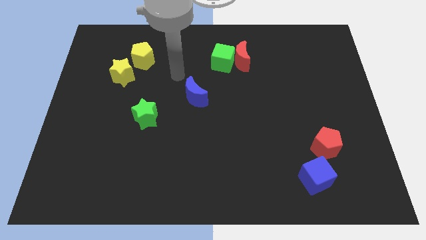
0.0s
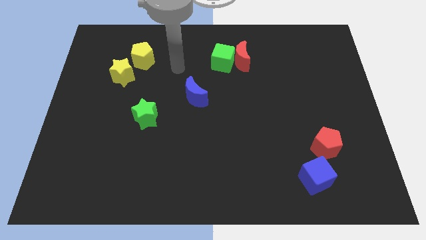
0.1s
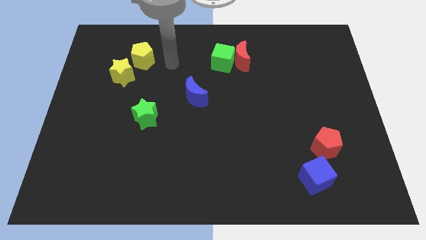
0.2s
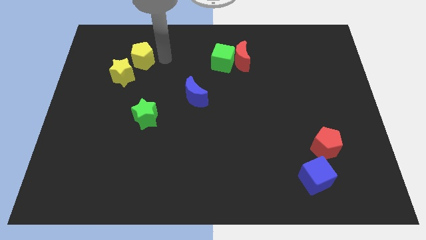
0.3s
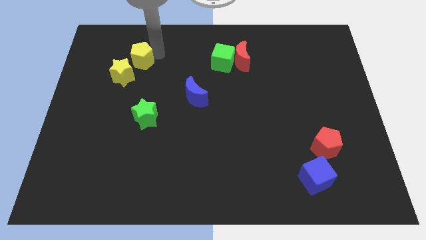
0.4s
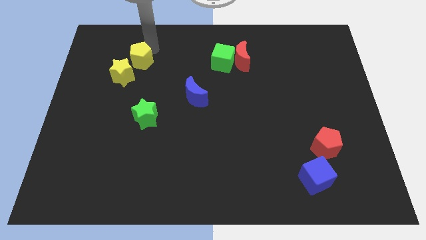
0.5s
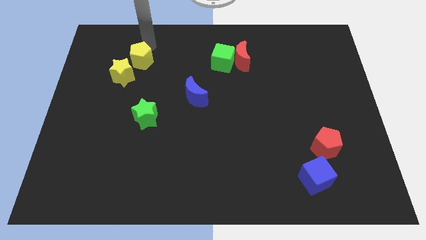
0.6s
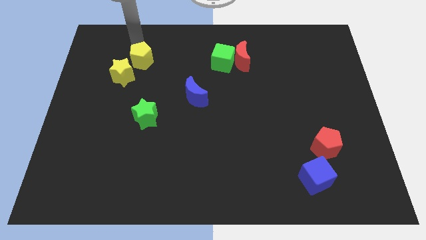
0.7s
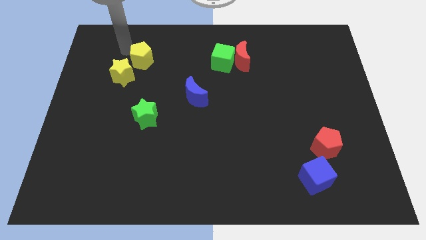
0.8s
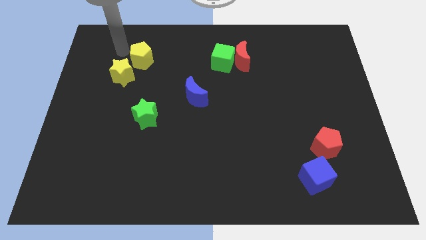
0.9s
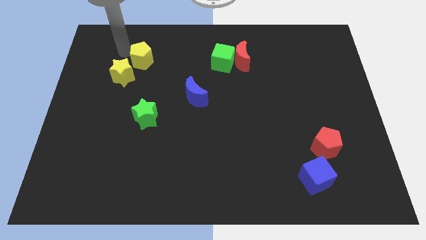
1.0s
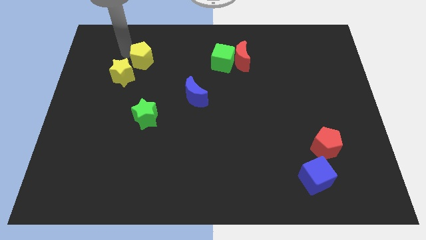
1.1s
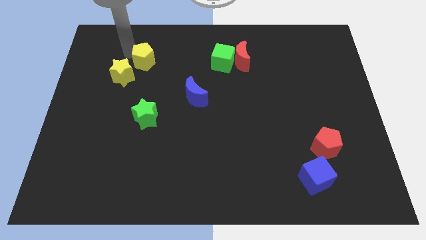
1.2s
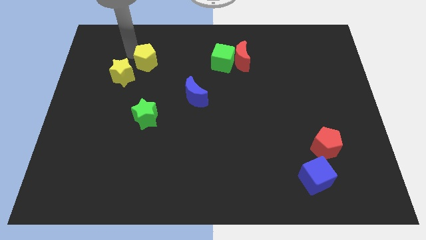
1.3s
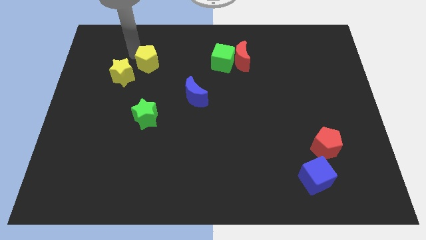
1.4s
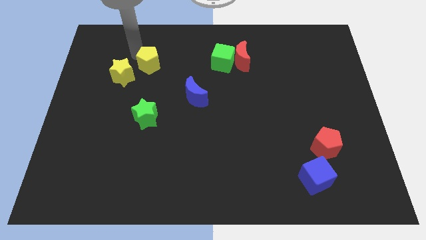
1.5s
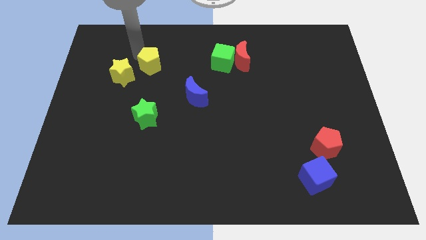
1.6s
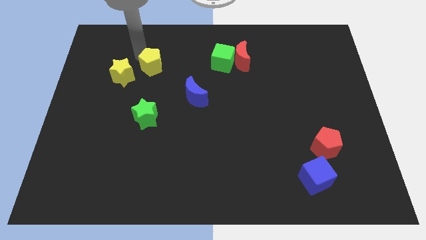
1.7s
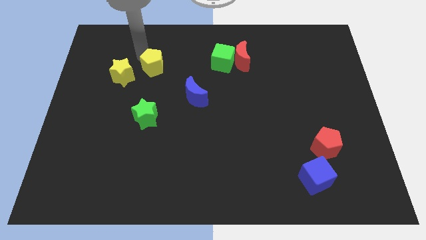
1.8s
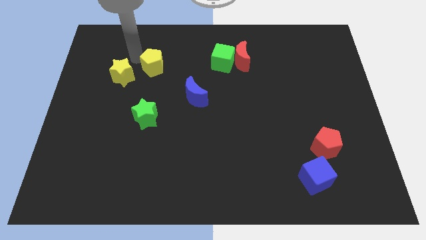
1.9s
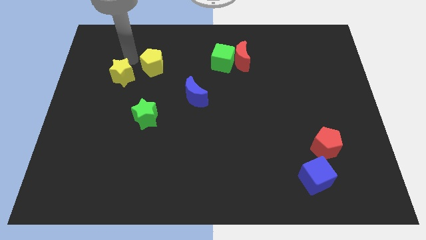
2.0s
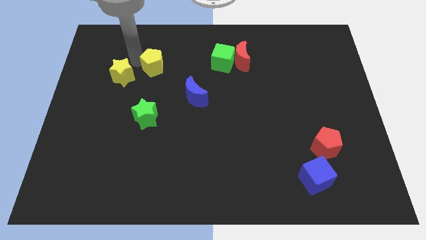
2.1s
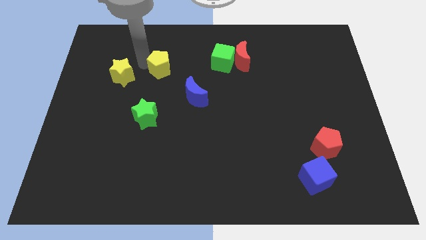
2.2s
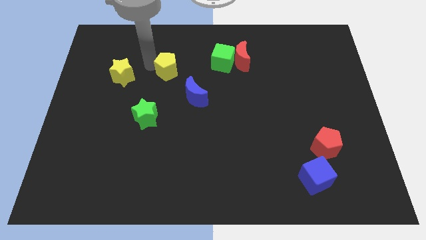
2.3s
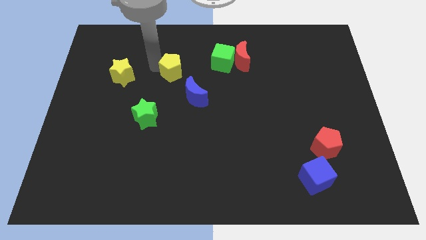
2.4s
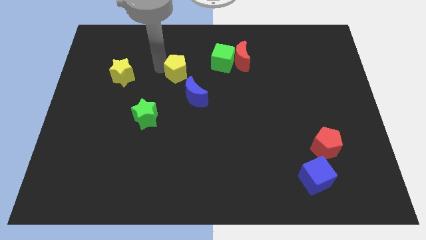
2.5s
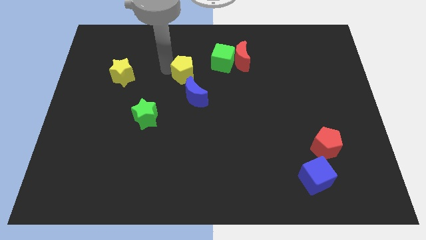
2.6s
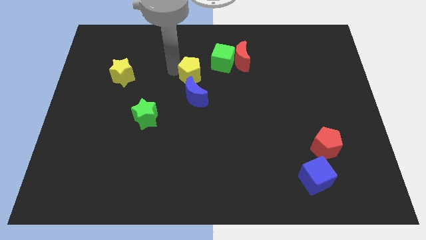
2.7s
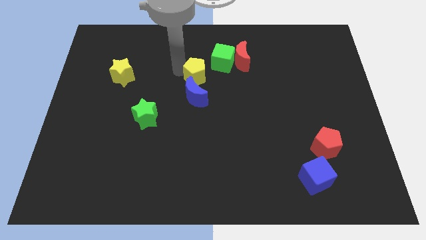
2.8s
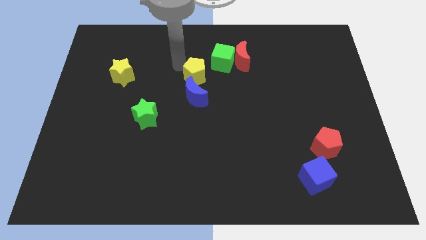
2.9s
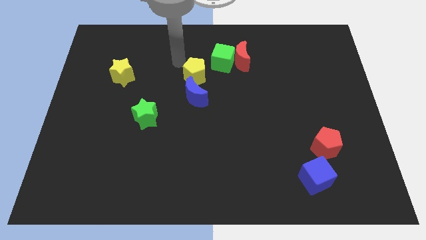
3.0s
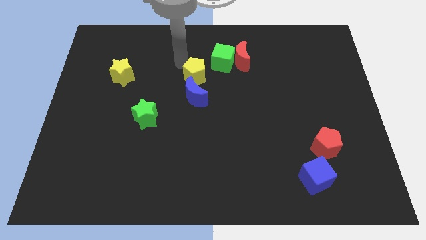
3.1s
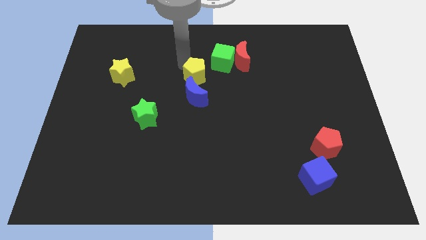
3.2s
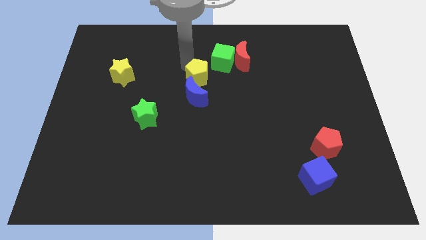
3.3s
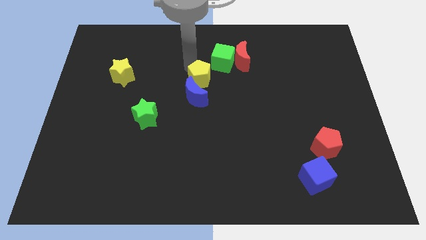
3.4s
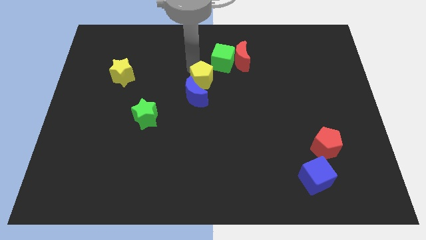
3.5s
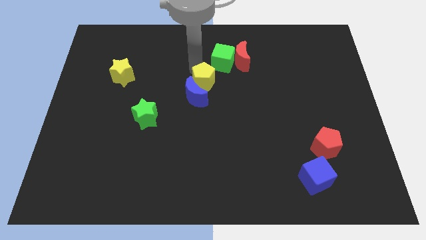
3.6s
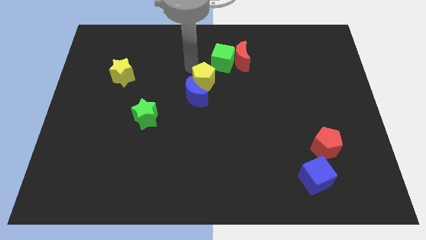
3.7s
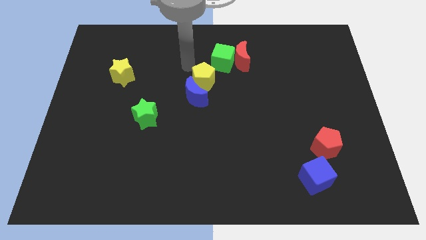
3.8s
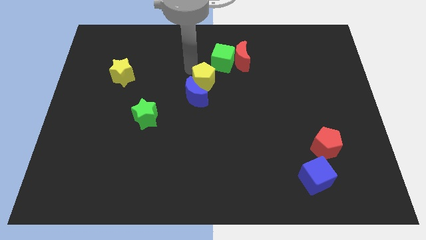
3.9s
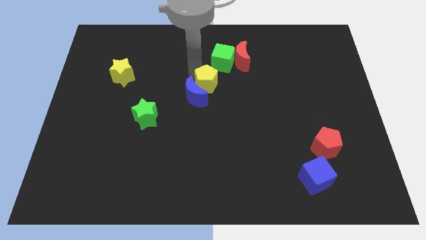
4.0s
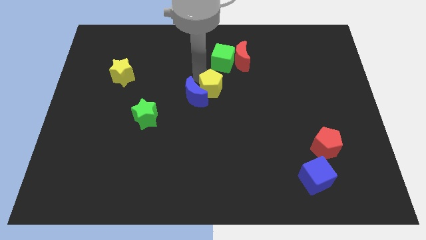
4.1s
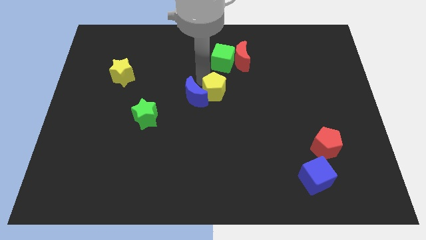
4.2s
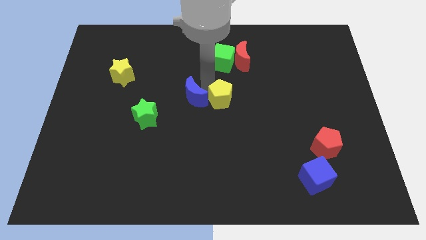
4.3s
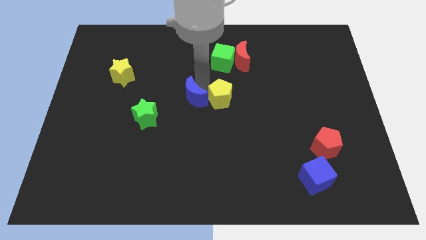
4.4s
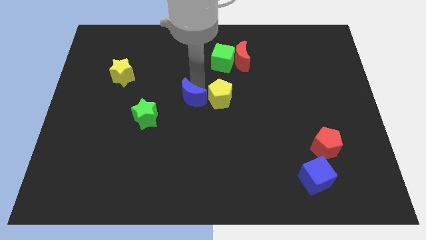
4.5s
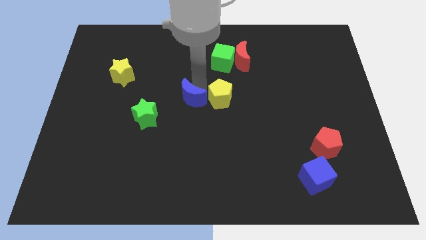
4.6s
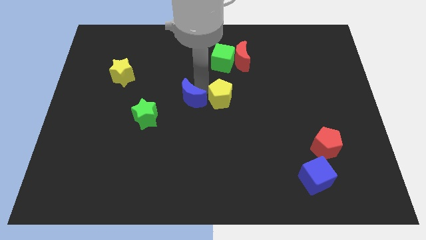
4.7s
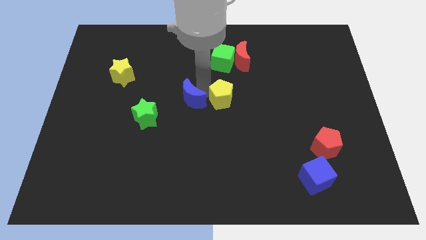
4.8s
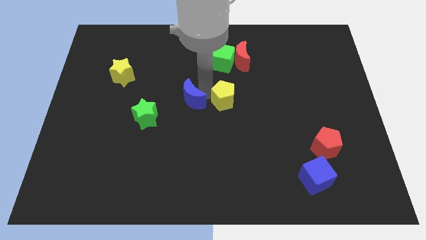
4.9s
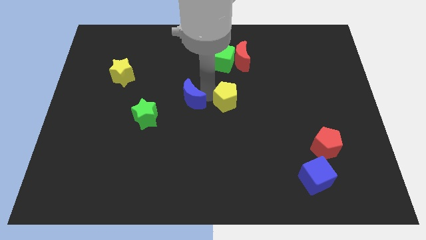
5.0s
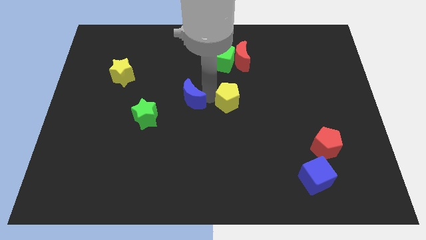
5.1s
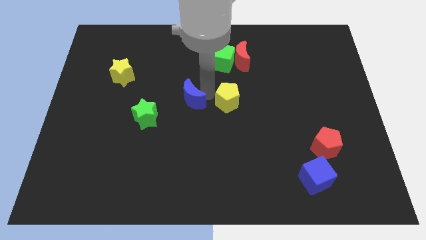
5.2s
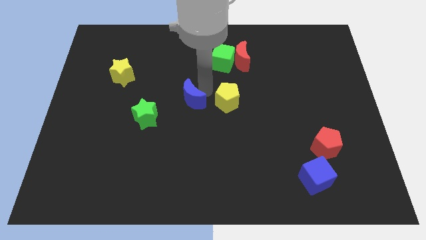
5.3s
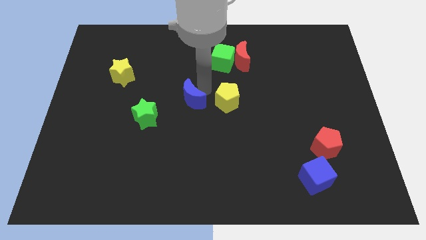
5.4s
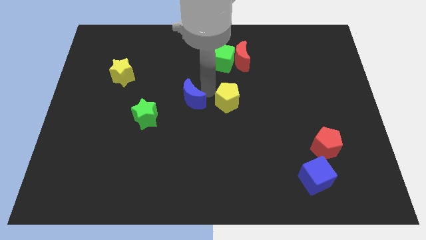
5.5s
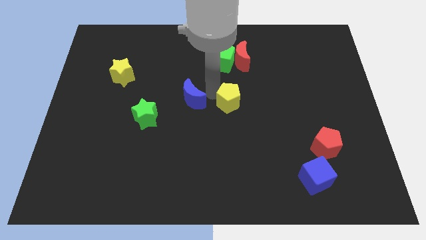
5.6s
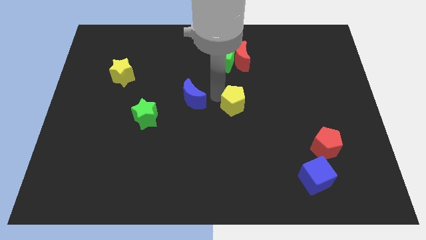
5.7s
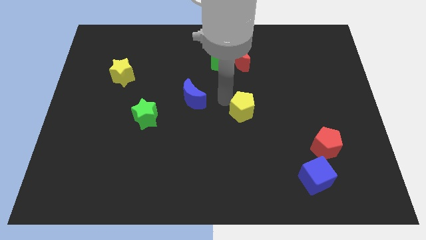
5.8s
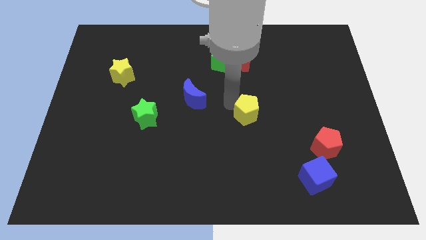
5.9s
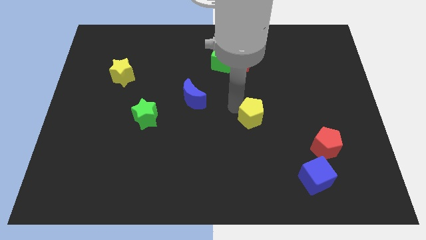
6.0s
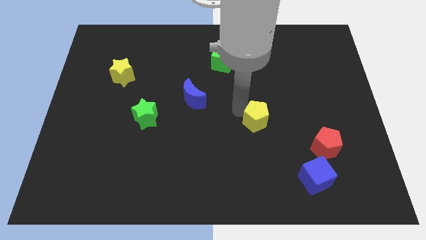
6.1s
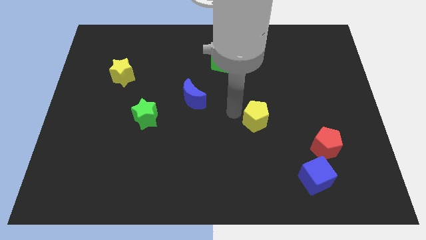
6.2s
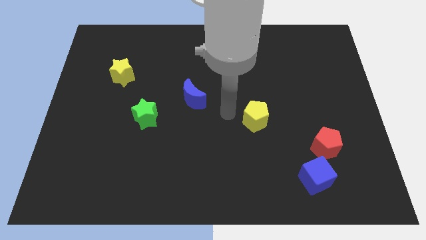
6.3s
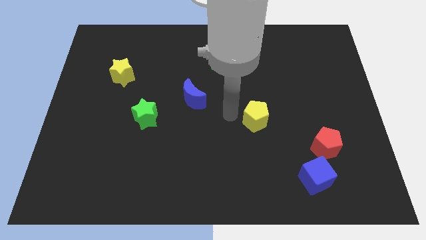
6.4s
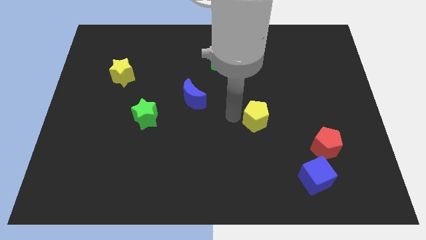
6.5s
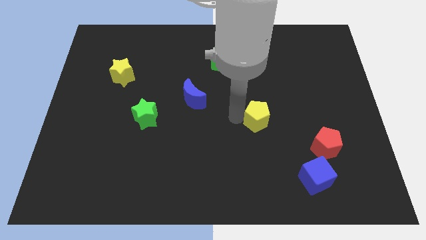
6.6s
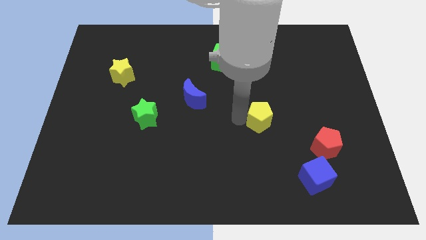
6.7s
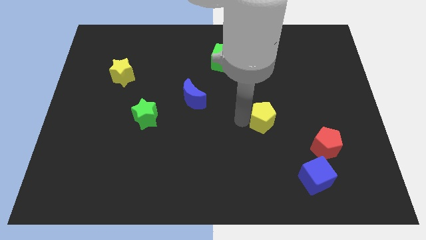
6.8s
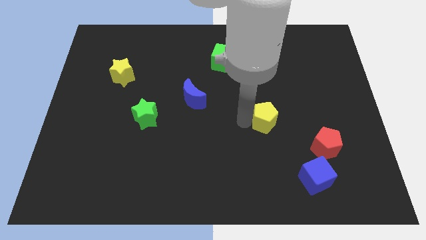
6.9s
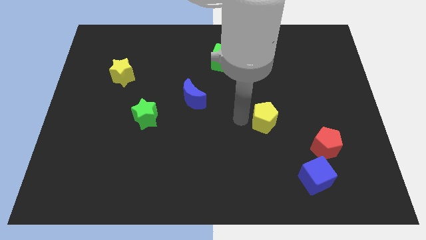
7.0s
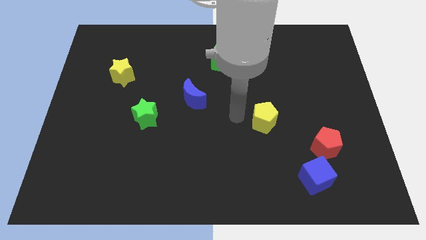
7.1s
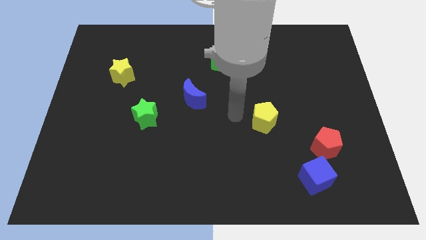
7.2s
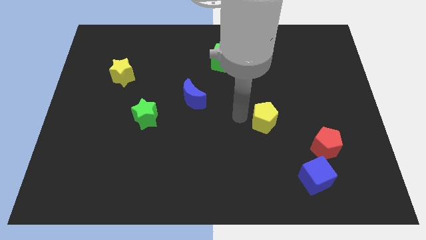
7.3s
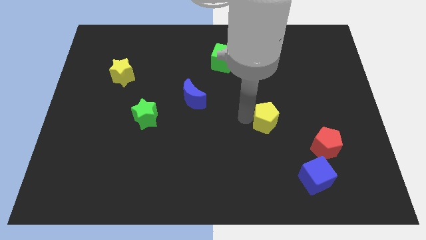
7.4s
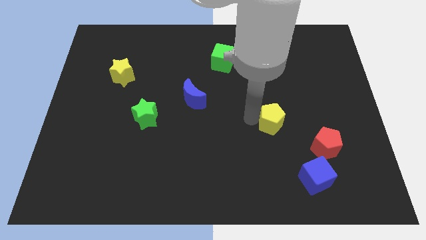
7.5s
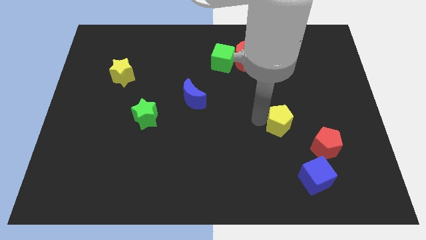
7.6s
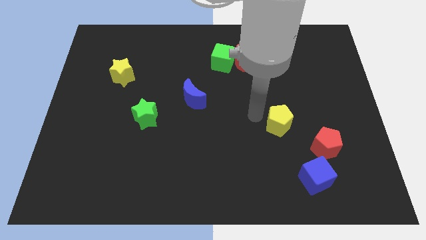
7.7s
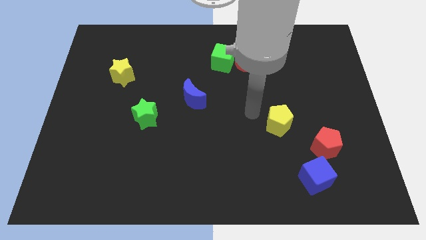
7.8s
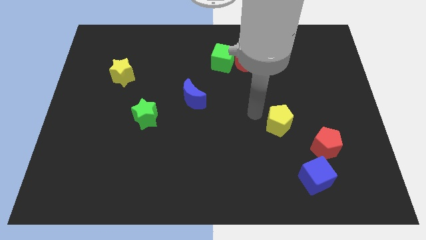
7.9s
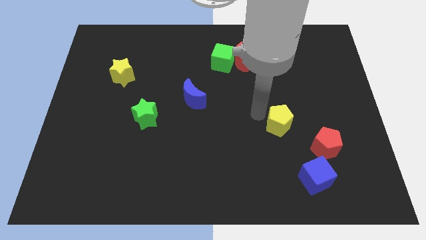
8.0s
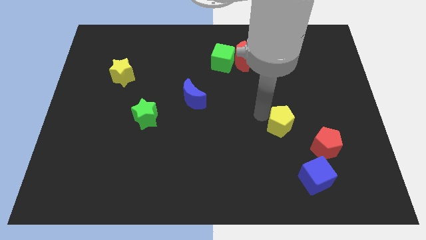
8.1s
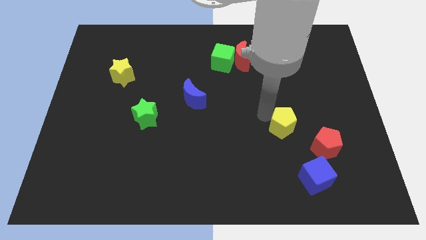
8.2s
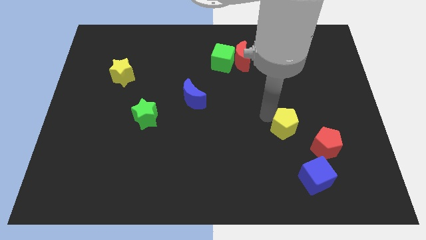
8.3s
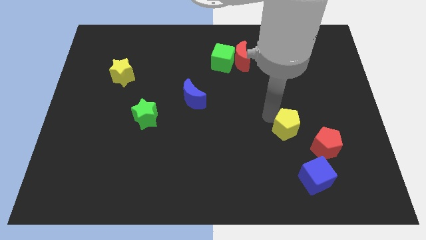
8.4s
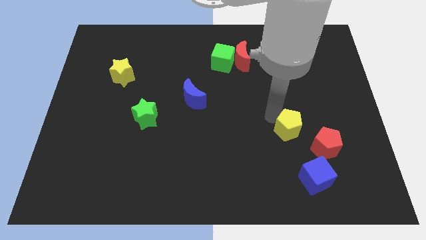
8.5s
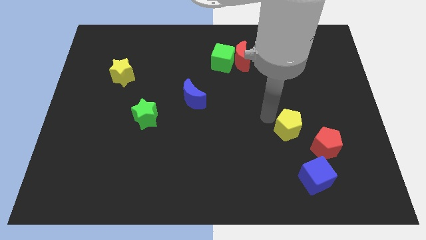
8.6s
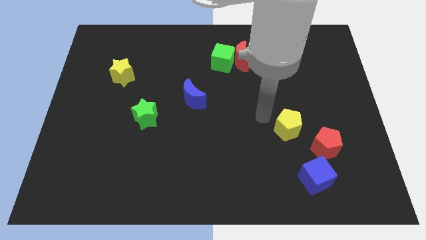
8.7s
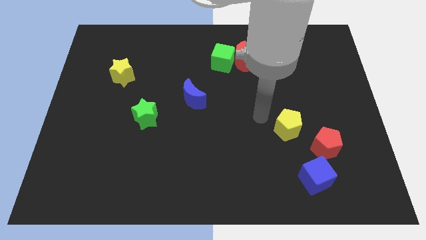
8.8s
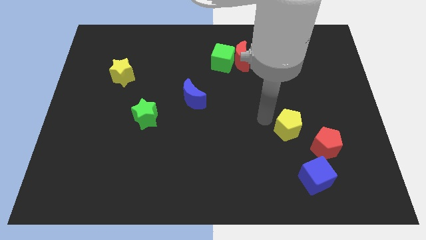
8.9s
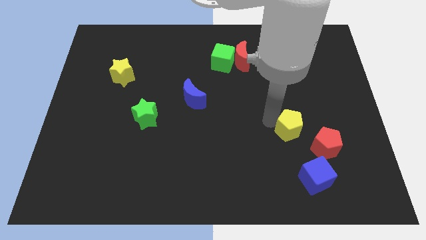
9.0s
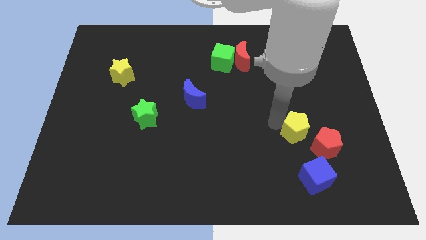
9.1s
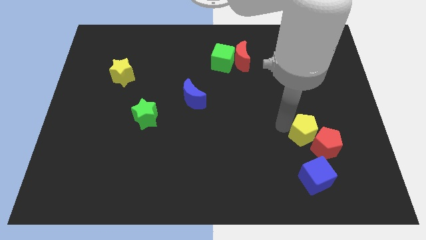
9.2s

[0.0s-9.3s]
move the yellow pentagon towards the red pentagon
